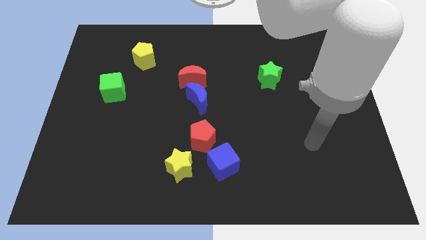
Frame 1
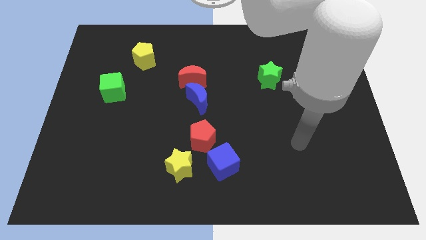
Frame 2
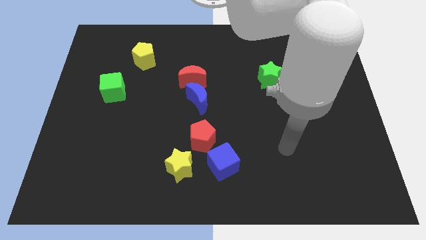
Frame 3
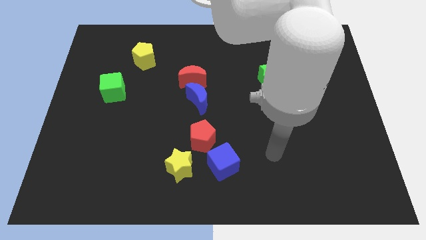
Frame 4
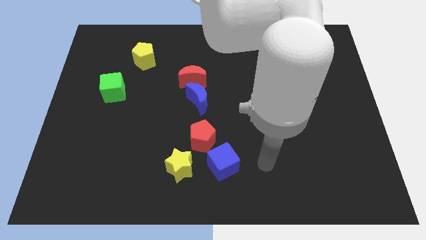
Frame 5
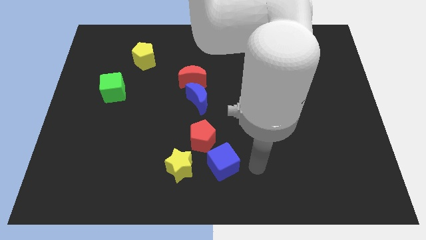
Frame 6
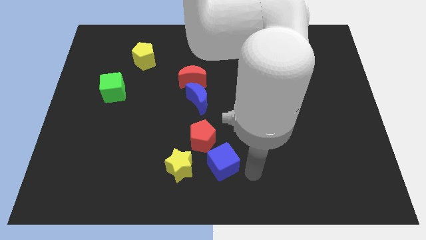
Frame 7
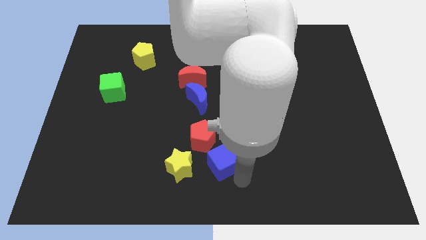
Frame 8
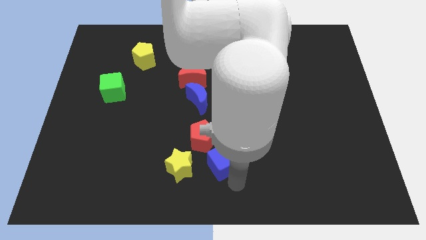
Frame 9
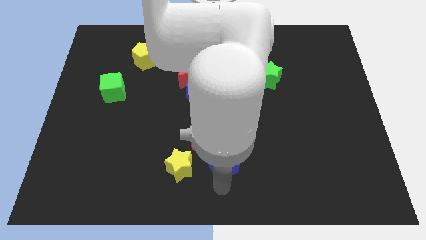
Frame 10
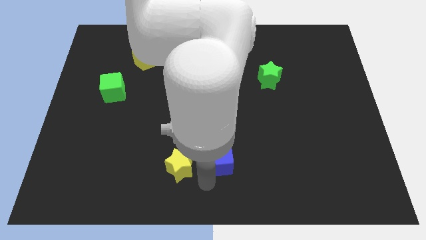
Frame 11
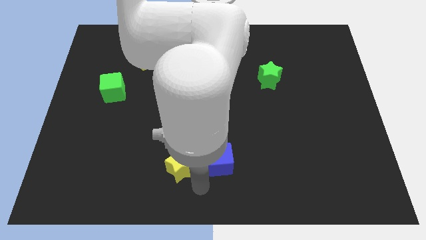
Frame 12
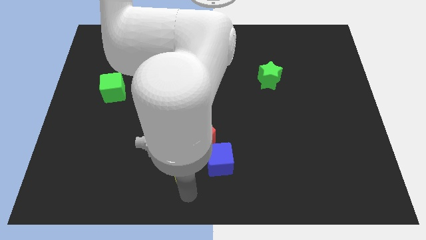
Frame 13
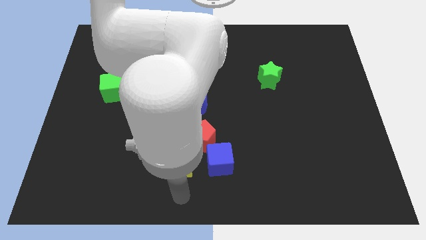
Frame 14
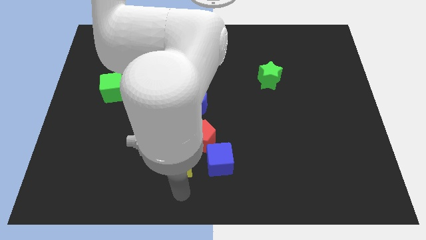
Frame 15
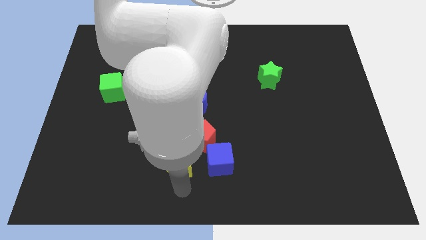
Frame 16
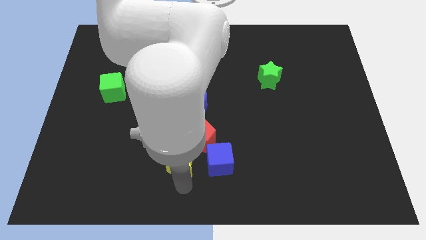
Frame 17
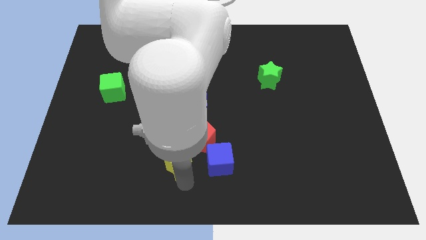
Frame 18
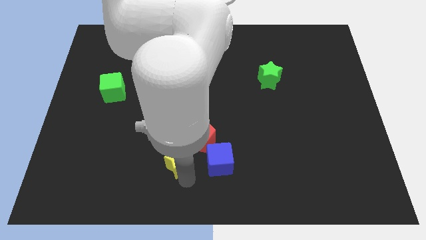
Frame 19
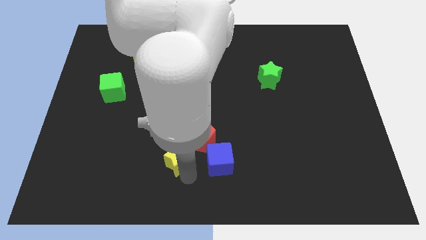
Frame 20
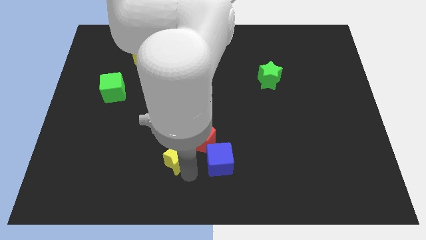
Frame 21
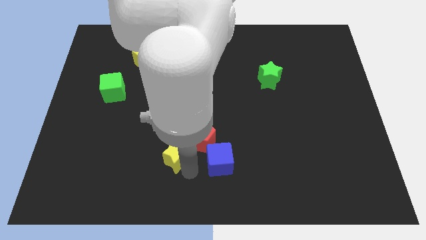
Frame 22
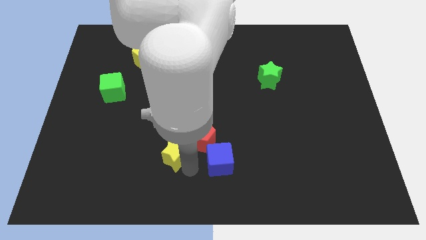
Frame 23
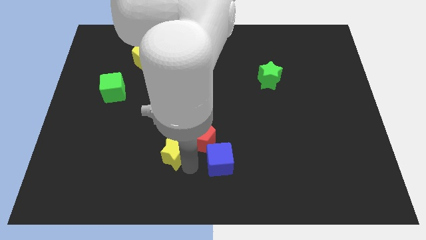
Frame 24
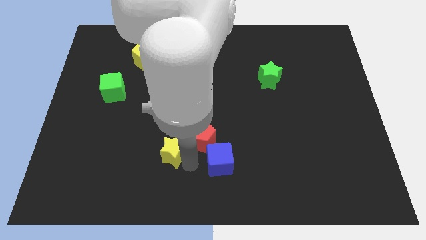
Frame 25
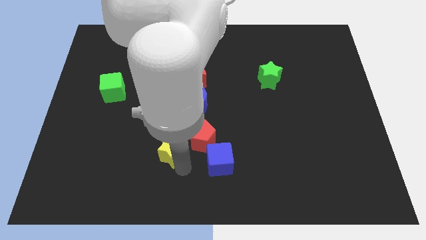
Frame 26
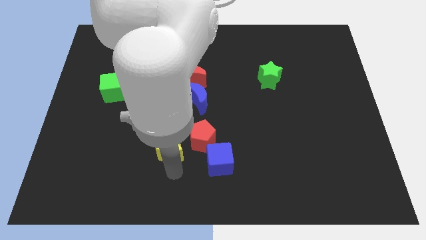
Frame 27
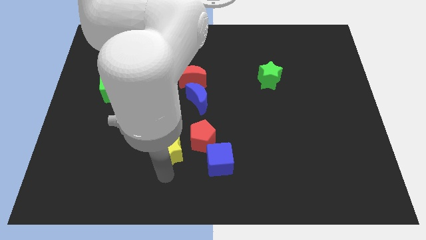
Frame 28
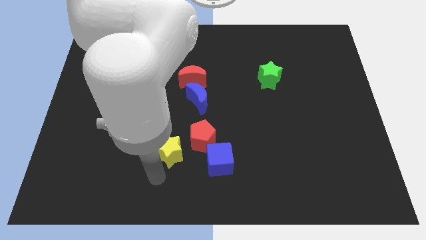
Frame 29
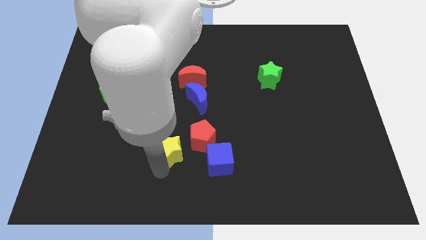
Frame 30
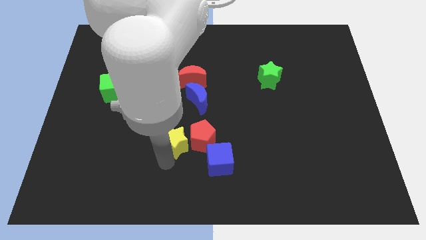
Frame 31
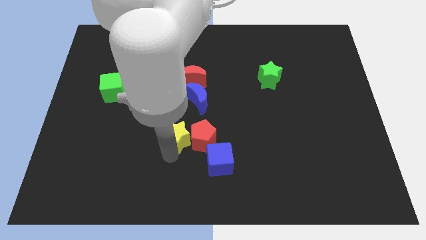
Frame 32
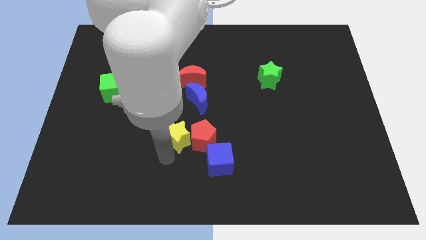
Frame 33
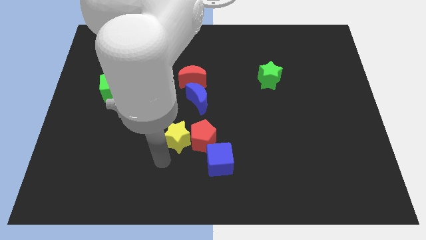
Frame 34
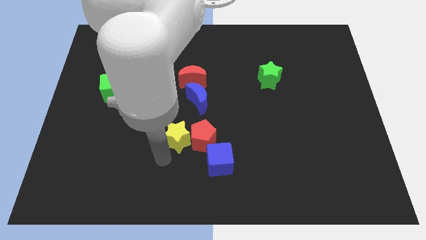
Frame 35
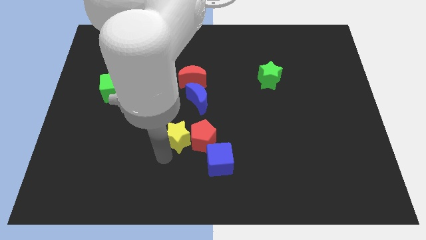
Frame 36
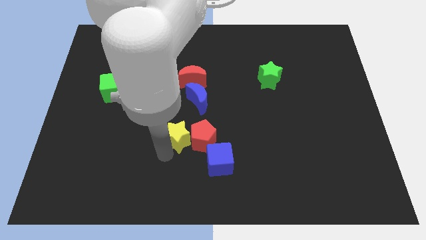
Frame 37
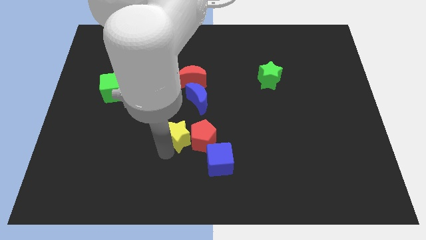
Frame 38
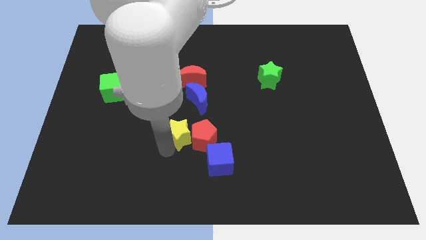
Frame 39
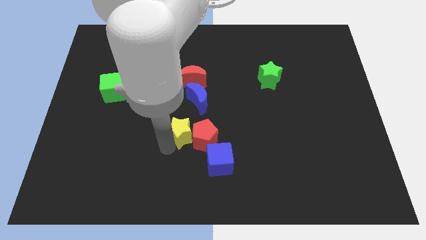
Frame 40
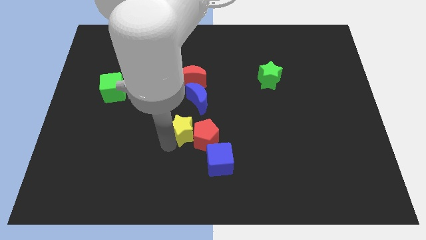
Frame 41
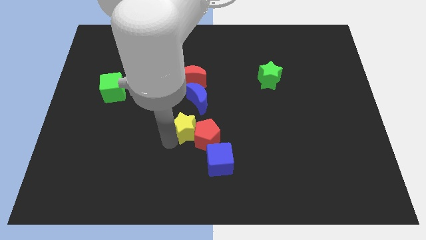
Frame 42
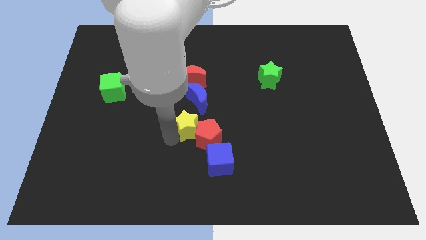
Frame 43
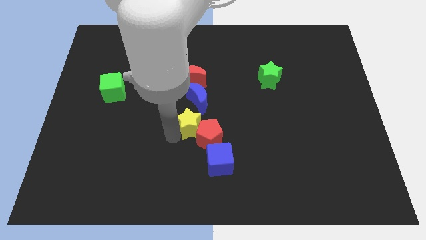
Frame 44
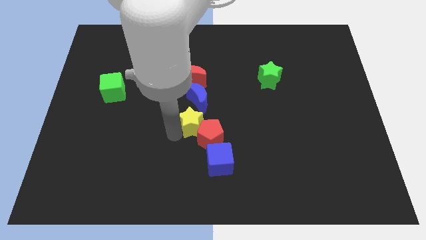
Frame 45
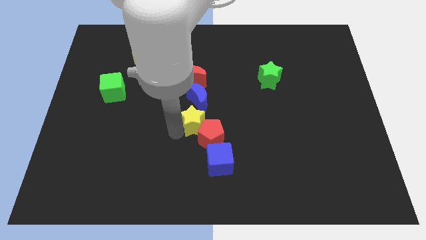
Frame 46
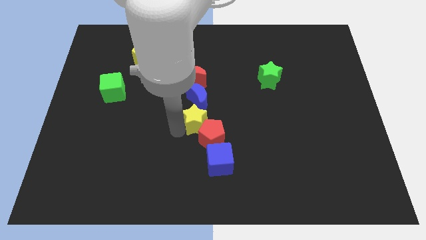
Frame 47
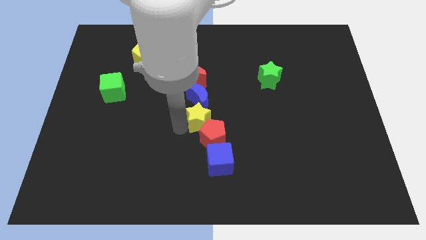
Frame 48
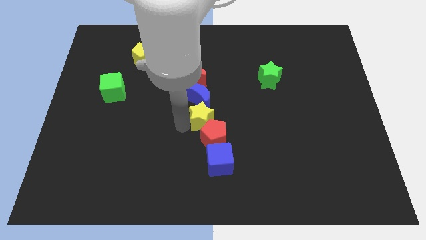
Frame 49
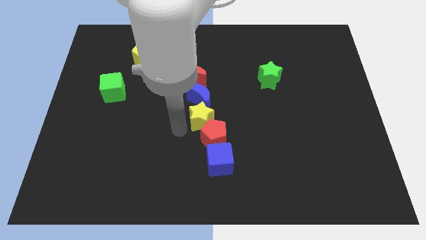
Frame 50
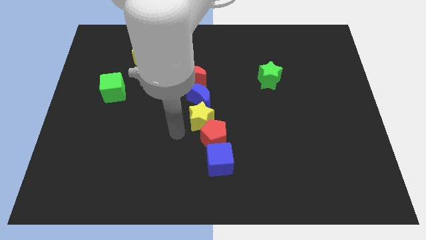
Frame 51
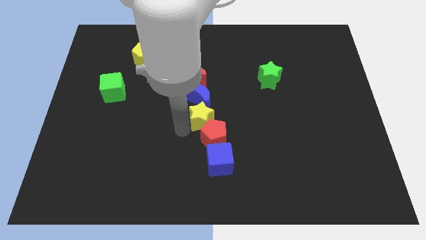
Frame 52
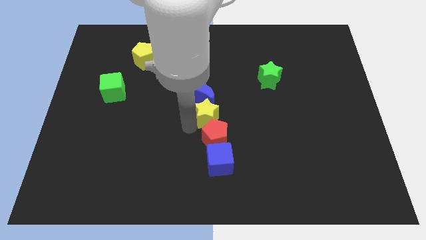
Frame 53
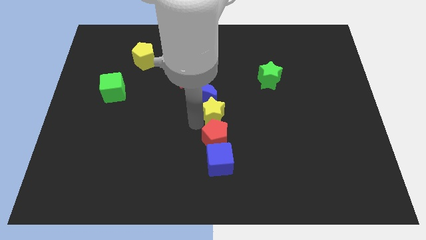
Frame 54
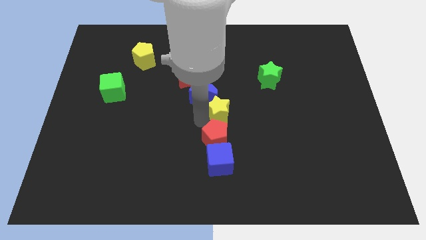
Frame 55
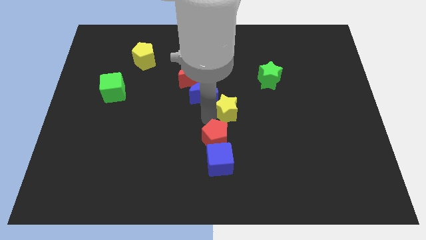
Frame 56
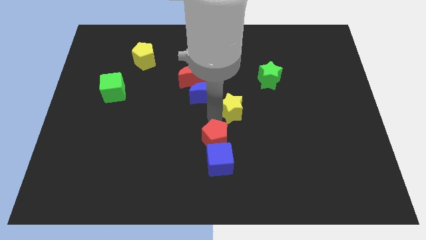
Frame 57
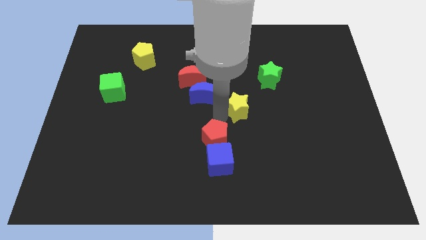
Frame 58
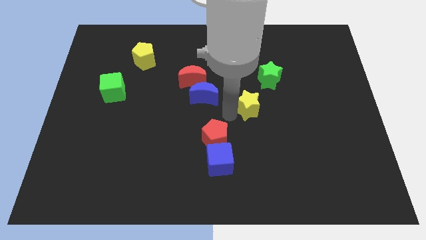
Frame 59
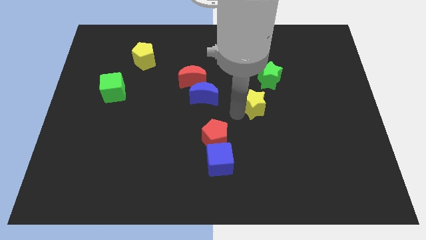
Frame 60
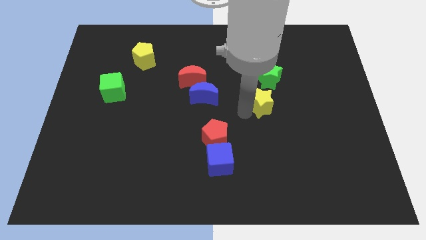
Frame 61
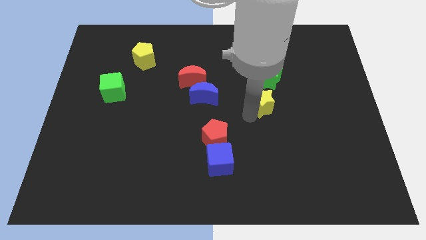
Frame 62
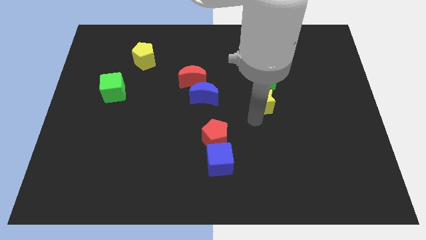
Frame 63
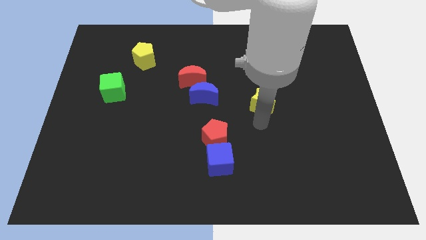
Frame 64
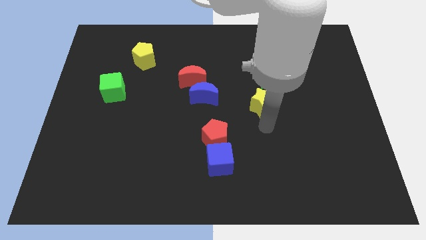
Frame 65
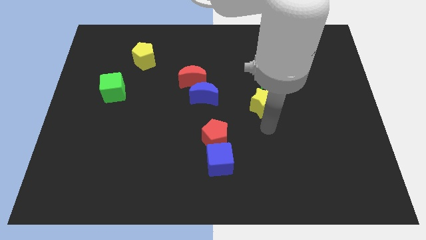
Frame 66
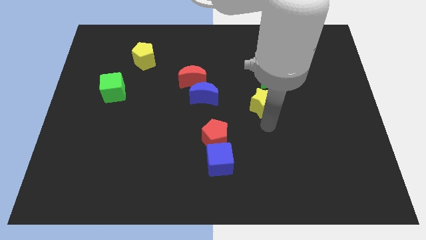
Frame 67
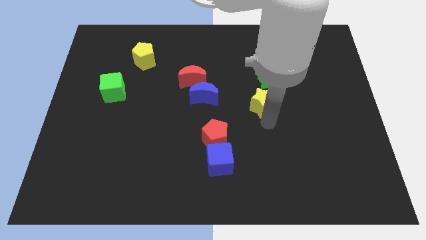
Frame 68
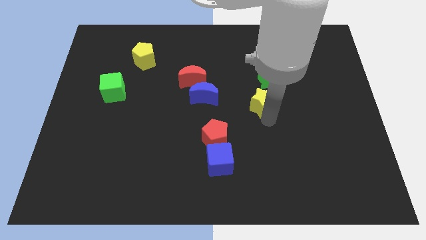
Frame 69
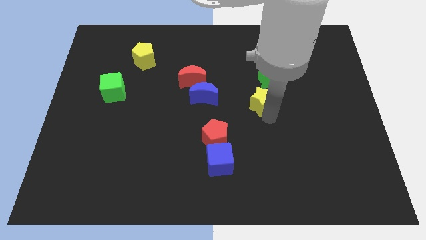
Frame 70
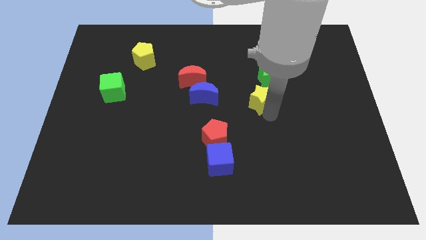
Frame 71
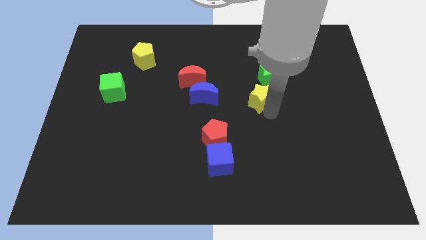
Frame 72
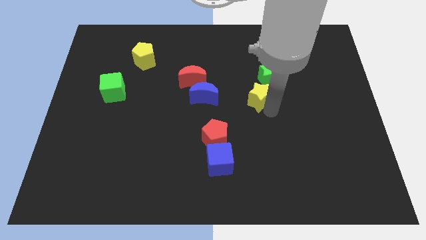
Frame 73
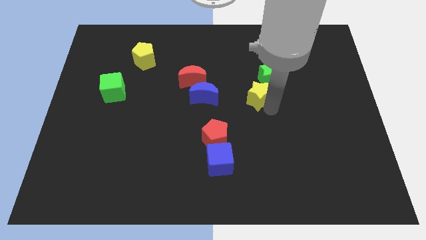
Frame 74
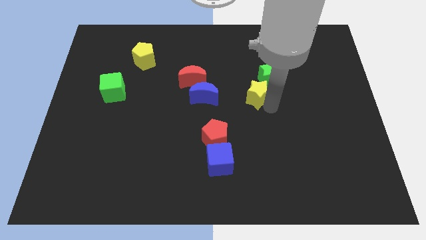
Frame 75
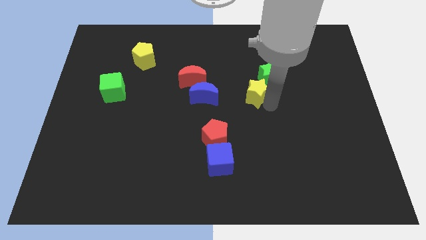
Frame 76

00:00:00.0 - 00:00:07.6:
push the yellow star next to the green star
